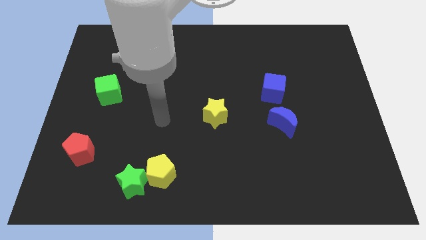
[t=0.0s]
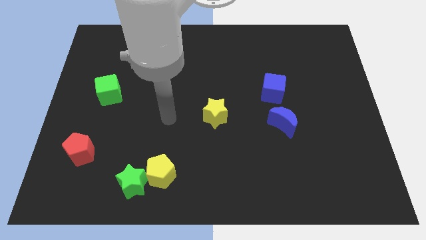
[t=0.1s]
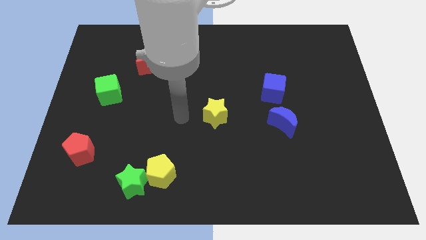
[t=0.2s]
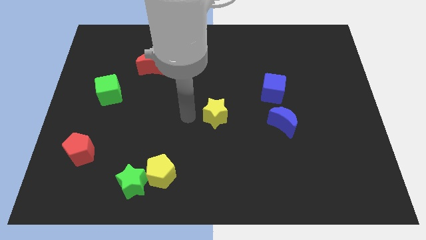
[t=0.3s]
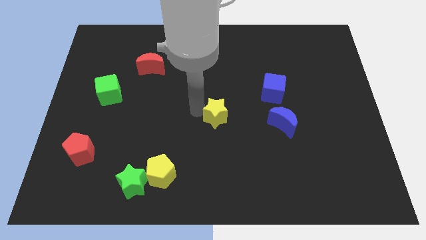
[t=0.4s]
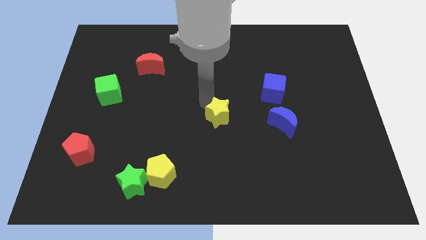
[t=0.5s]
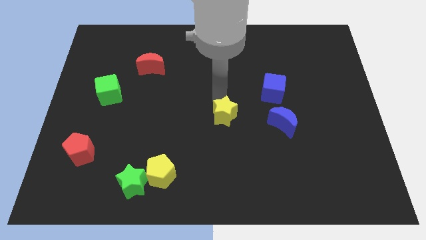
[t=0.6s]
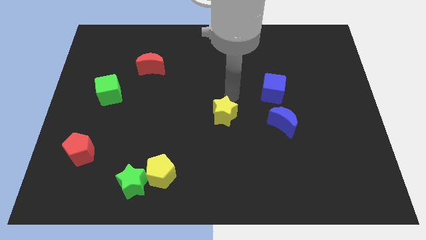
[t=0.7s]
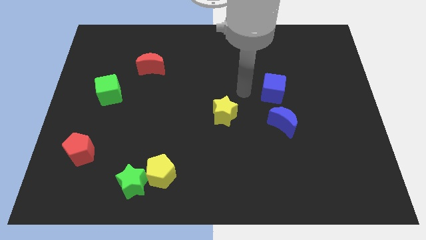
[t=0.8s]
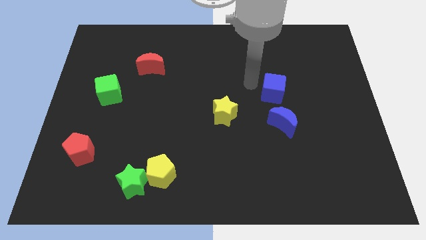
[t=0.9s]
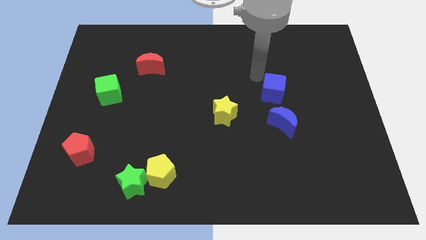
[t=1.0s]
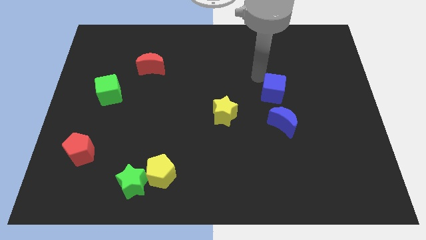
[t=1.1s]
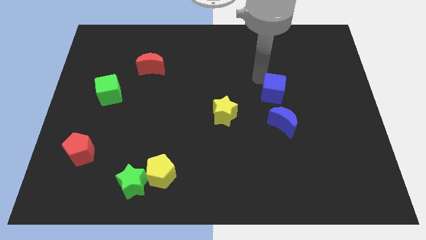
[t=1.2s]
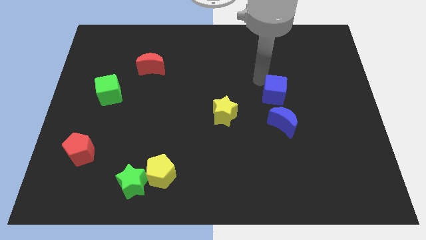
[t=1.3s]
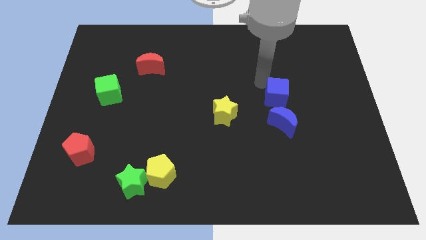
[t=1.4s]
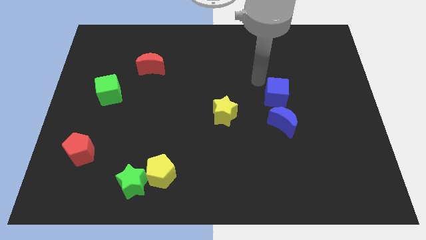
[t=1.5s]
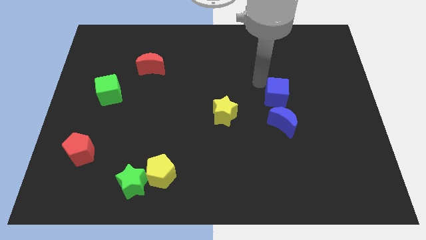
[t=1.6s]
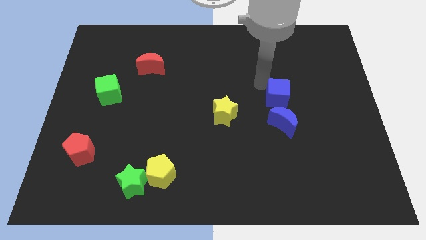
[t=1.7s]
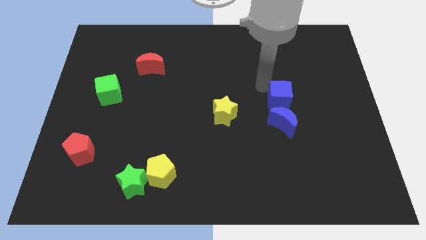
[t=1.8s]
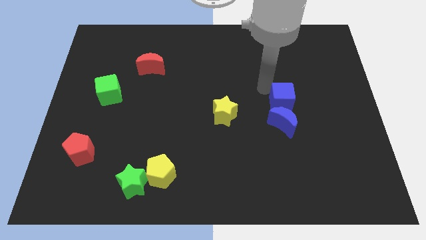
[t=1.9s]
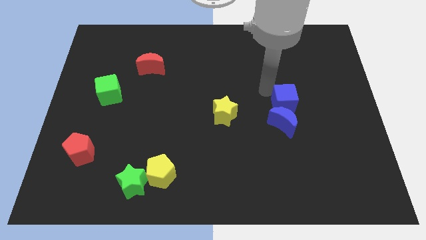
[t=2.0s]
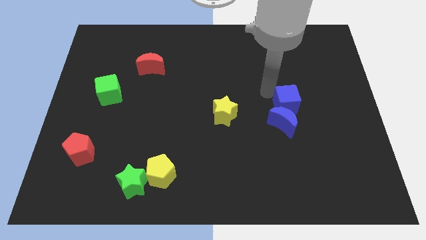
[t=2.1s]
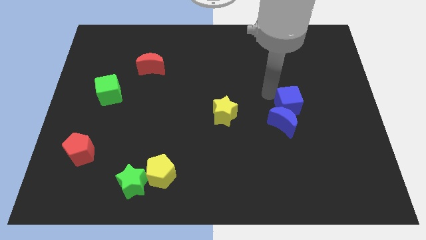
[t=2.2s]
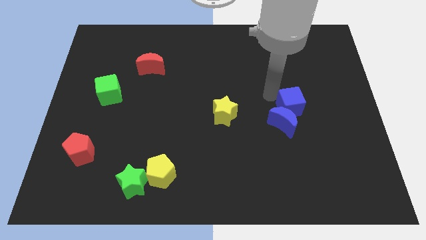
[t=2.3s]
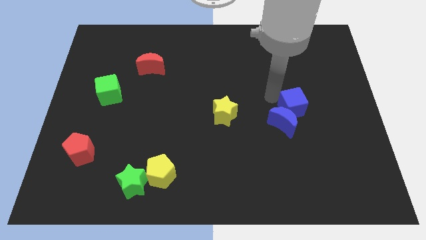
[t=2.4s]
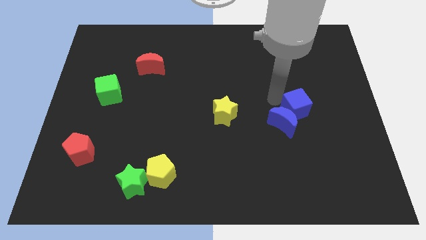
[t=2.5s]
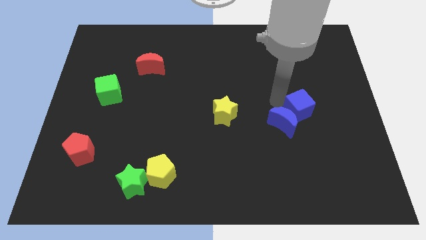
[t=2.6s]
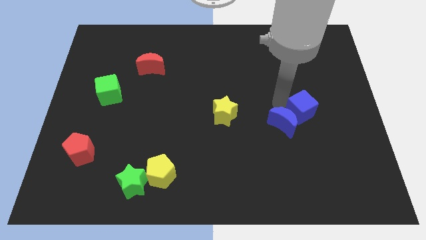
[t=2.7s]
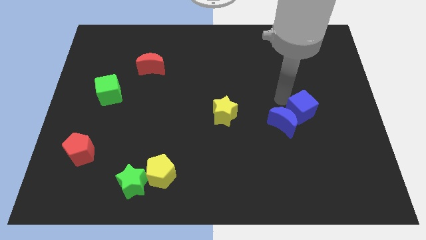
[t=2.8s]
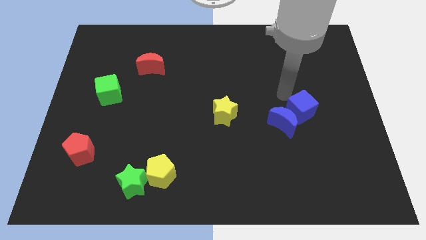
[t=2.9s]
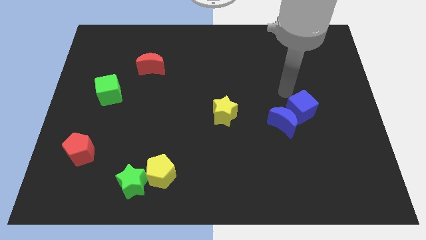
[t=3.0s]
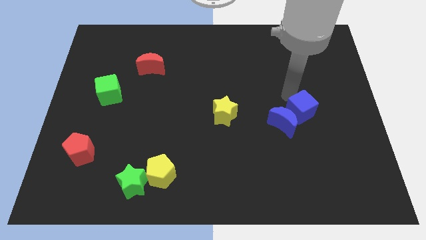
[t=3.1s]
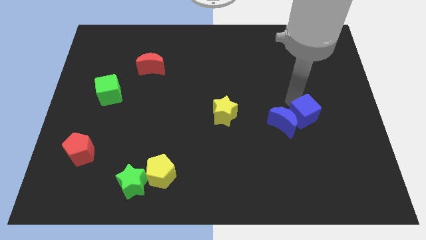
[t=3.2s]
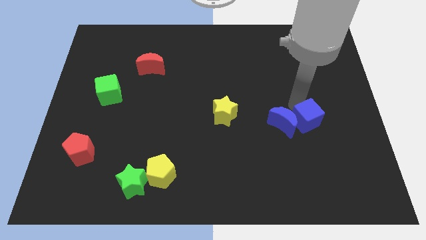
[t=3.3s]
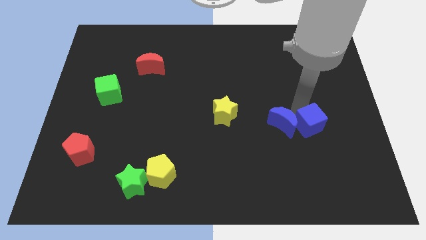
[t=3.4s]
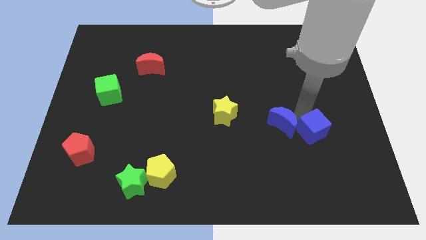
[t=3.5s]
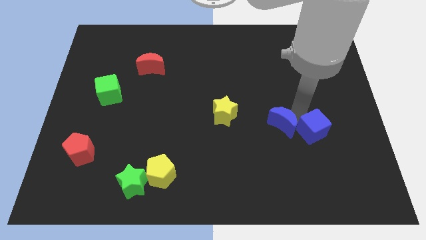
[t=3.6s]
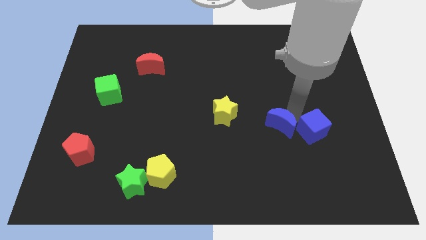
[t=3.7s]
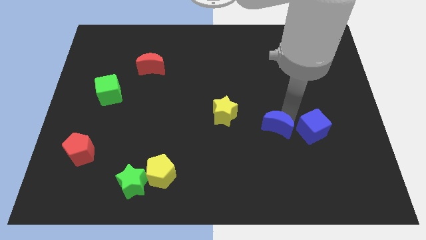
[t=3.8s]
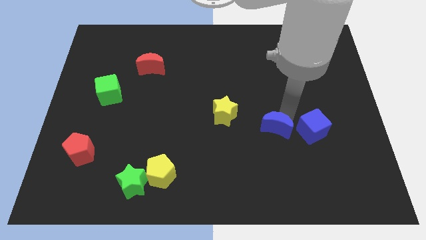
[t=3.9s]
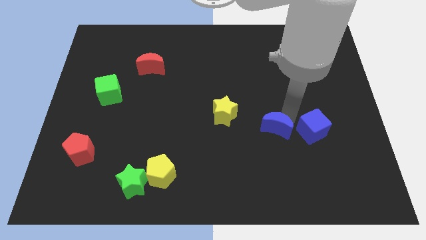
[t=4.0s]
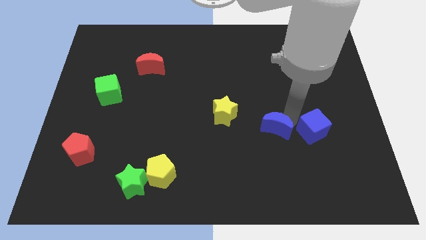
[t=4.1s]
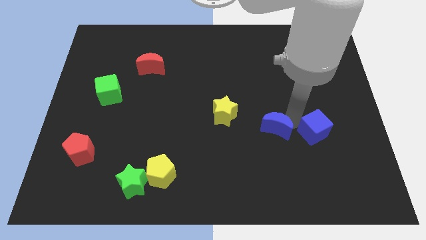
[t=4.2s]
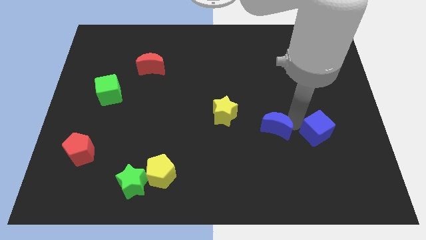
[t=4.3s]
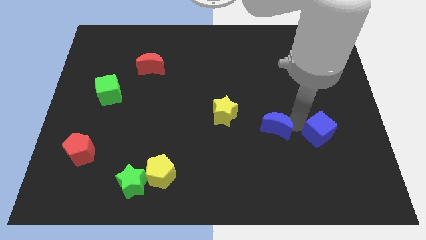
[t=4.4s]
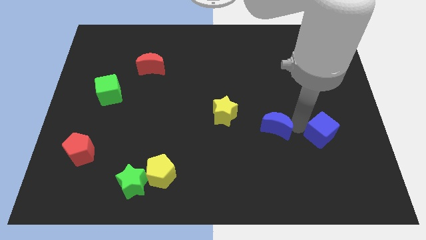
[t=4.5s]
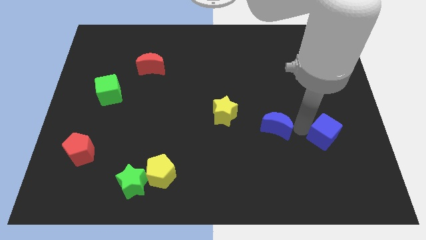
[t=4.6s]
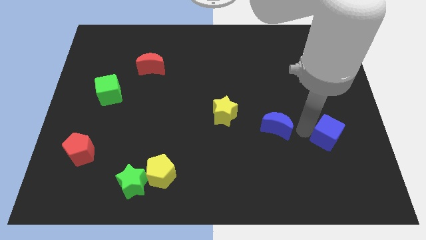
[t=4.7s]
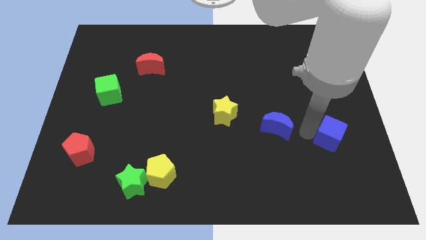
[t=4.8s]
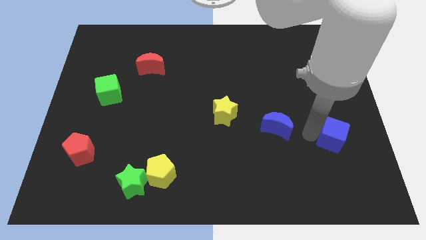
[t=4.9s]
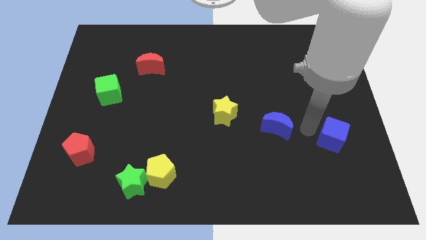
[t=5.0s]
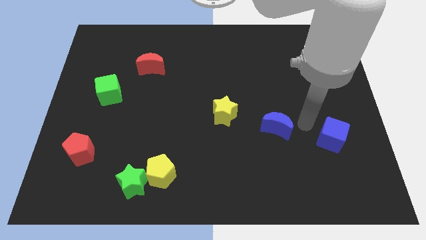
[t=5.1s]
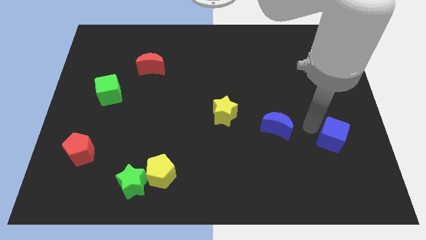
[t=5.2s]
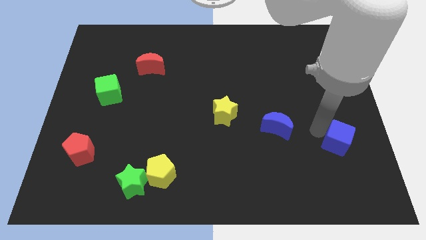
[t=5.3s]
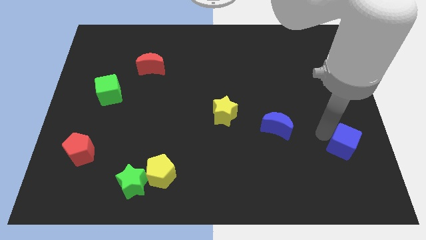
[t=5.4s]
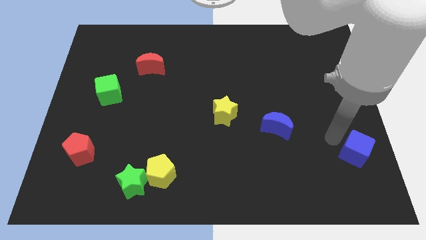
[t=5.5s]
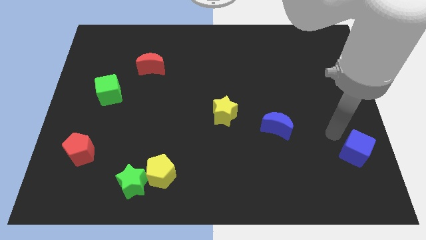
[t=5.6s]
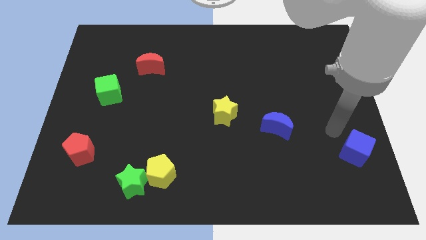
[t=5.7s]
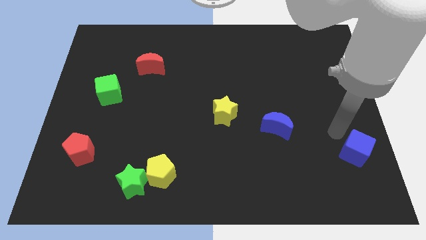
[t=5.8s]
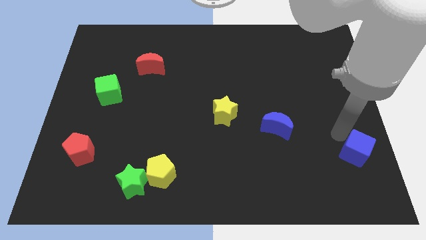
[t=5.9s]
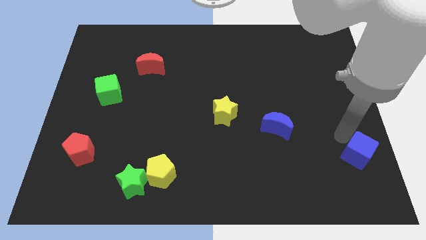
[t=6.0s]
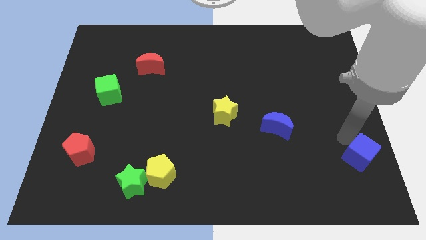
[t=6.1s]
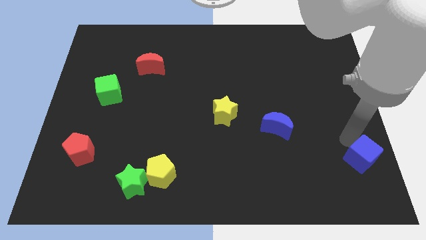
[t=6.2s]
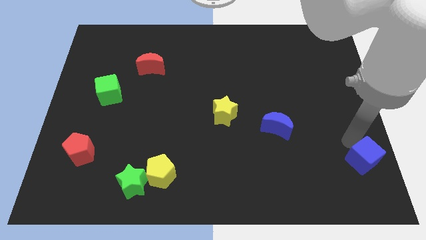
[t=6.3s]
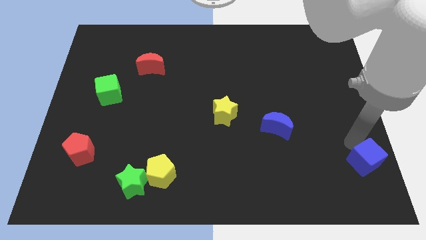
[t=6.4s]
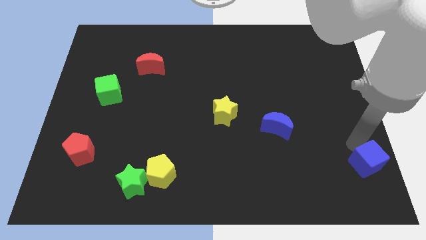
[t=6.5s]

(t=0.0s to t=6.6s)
put the blue cube to the bottom right of the board

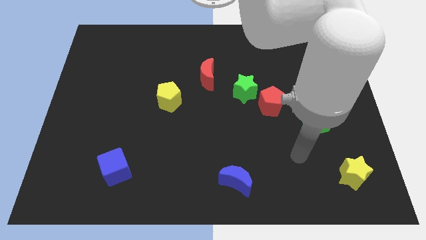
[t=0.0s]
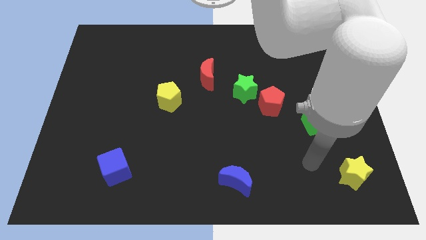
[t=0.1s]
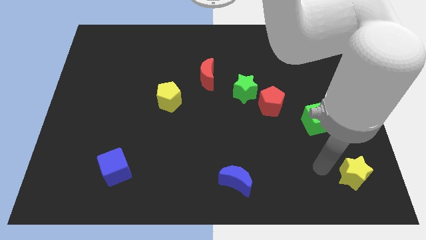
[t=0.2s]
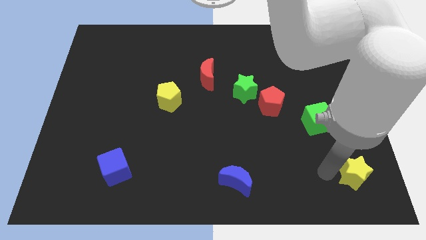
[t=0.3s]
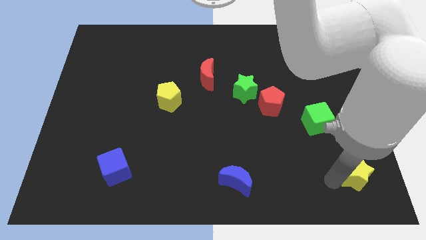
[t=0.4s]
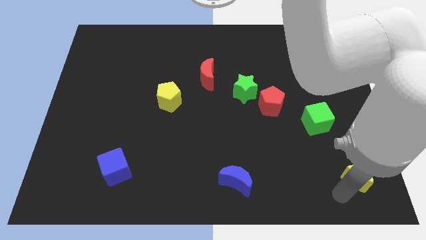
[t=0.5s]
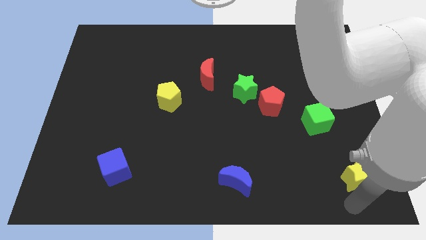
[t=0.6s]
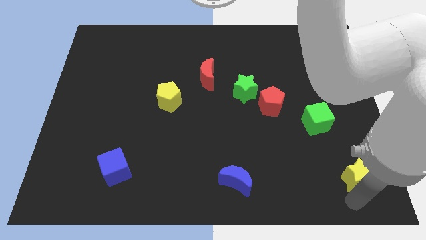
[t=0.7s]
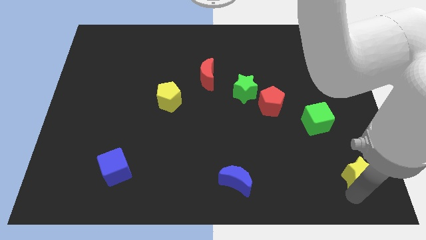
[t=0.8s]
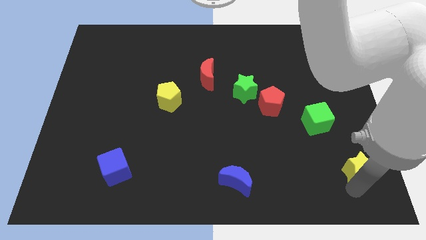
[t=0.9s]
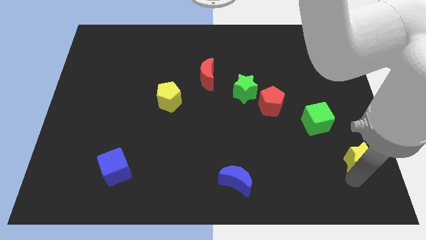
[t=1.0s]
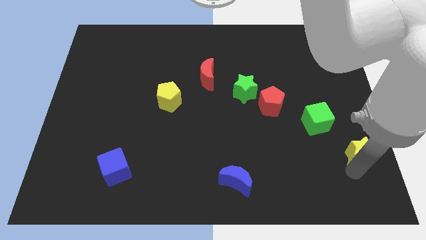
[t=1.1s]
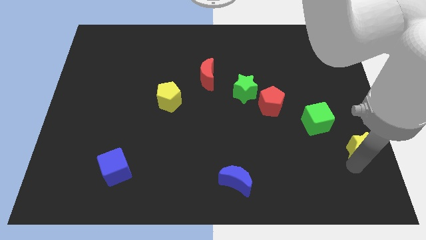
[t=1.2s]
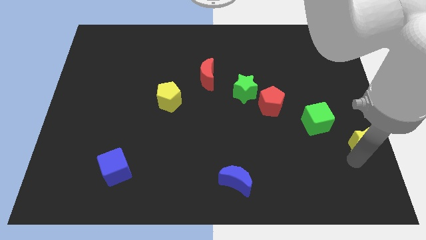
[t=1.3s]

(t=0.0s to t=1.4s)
put the yellow star to the right side of the board

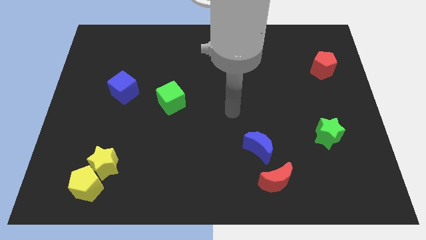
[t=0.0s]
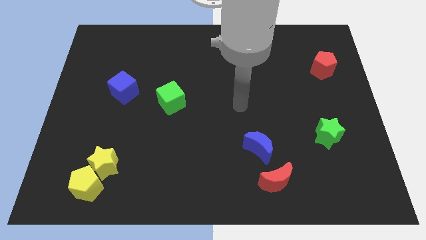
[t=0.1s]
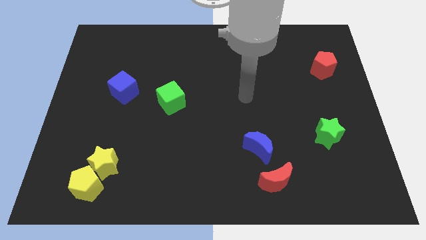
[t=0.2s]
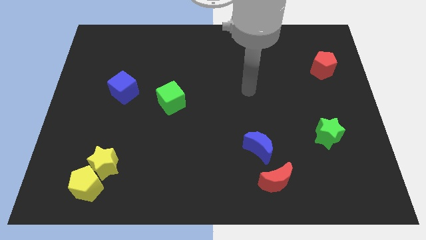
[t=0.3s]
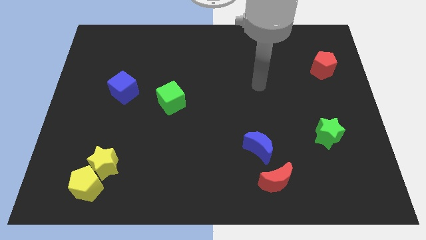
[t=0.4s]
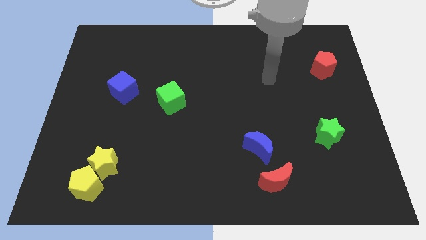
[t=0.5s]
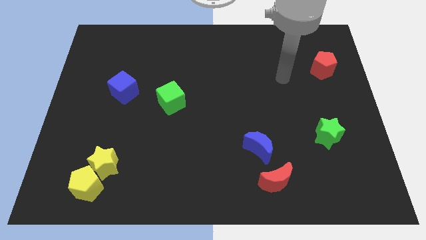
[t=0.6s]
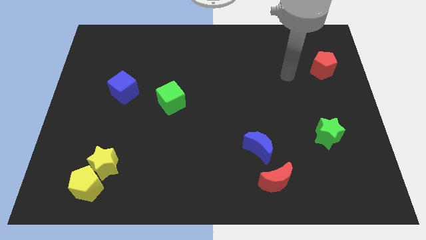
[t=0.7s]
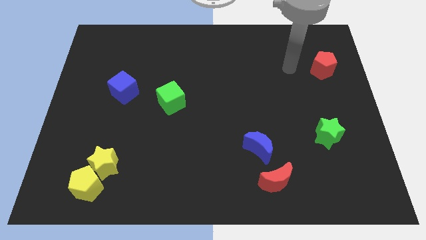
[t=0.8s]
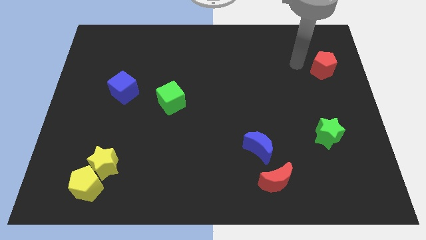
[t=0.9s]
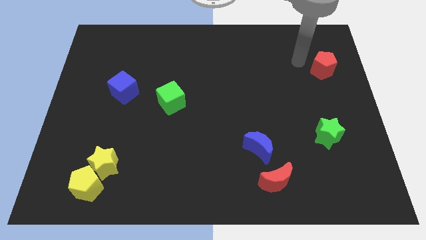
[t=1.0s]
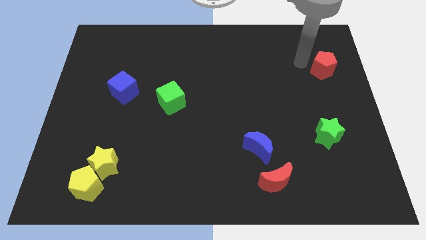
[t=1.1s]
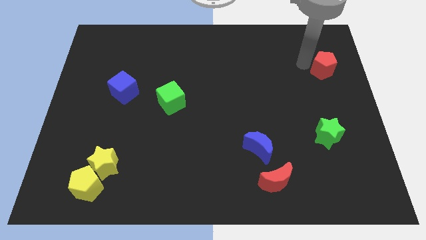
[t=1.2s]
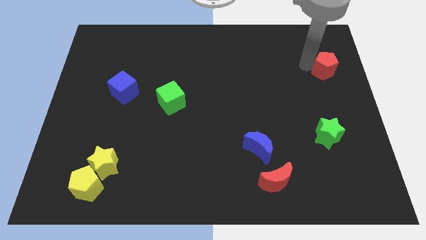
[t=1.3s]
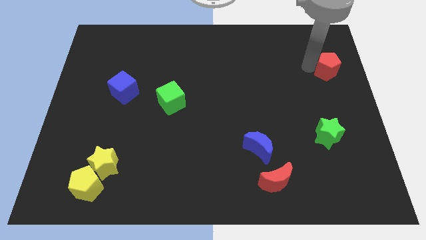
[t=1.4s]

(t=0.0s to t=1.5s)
slide the red pentagon to the right side of the board
